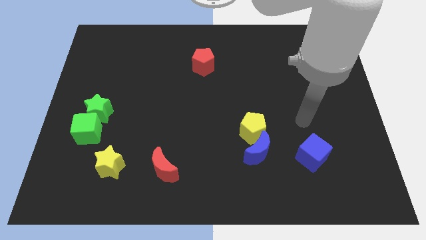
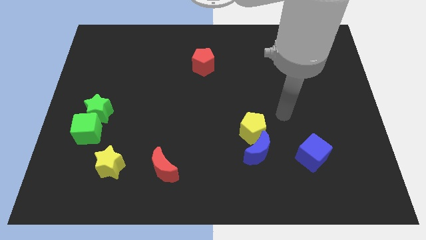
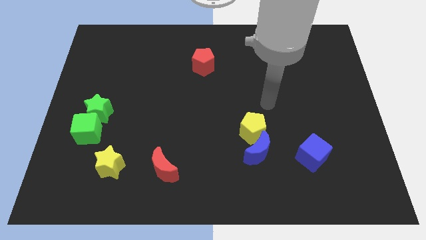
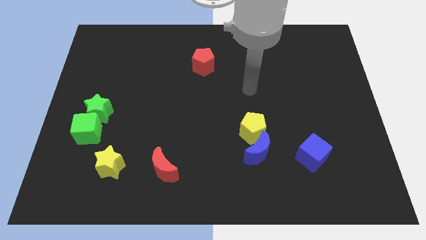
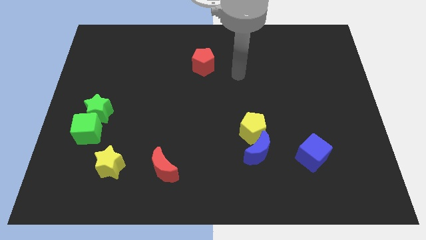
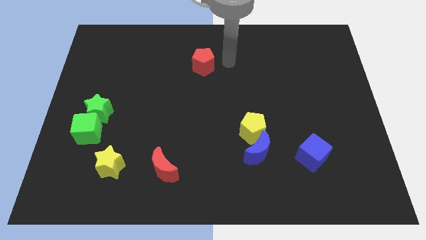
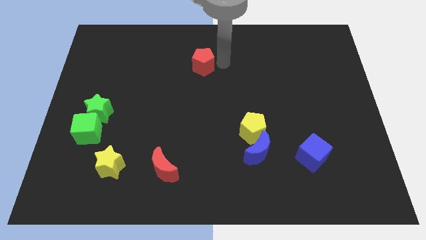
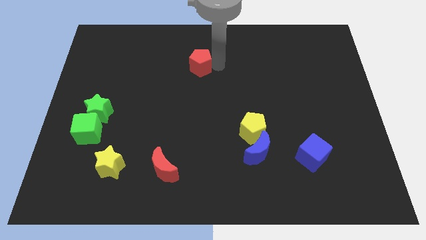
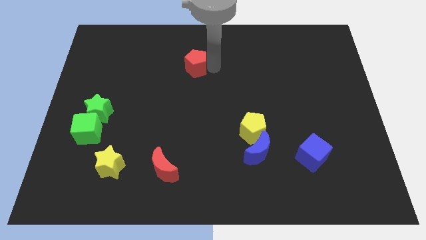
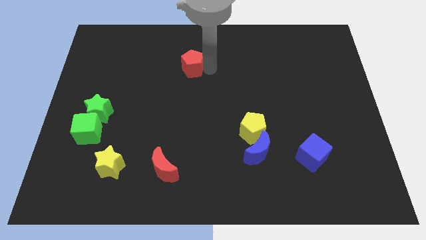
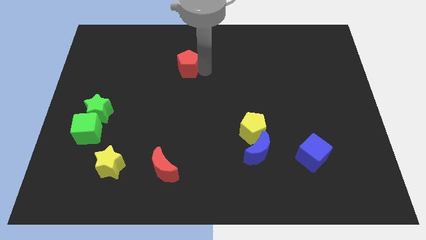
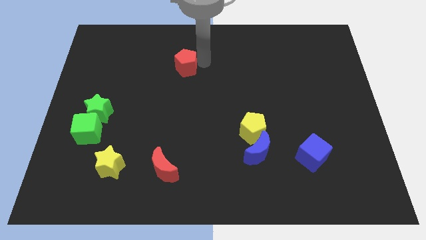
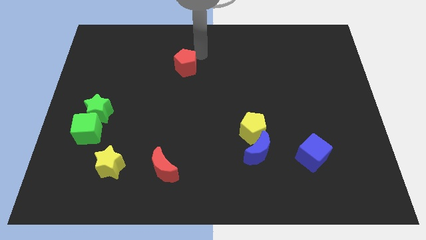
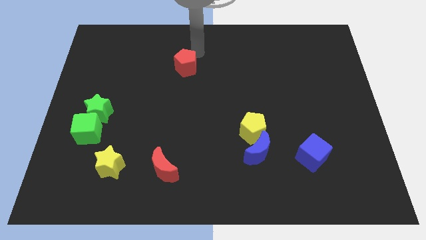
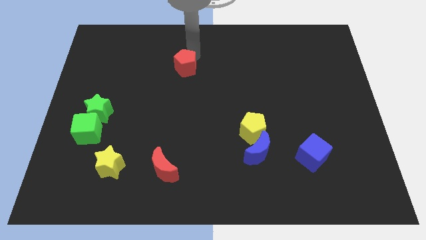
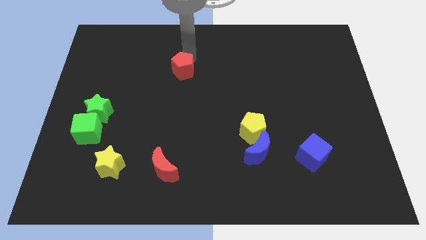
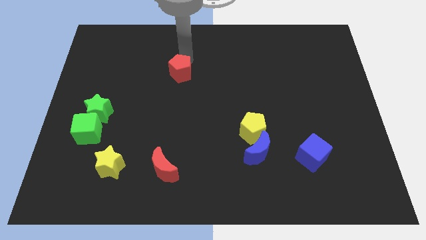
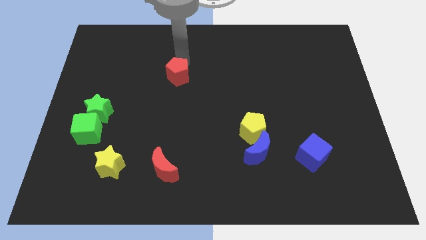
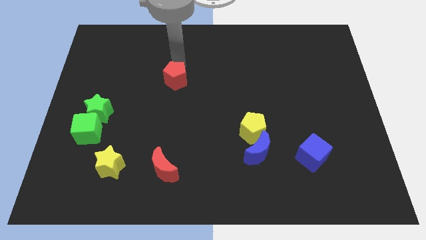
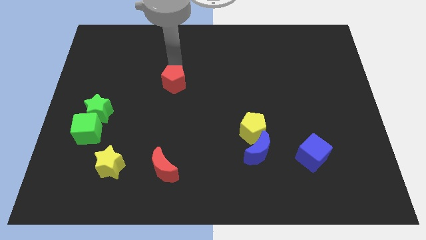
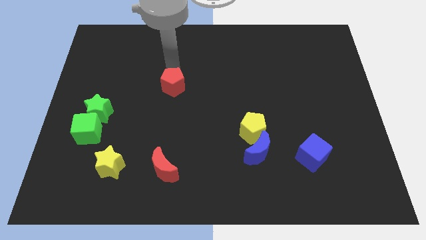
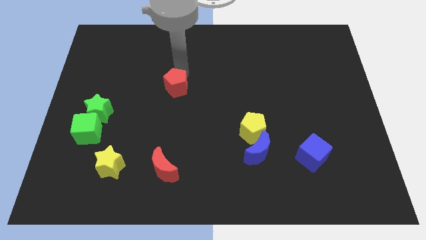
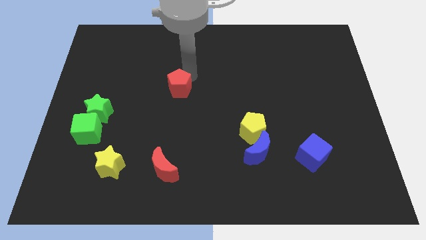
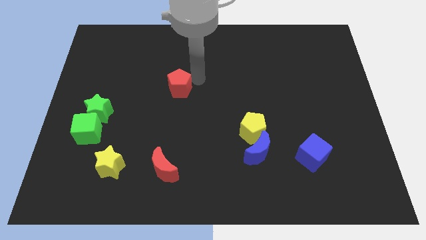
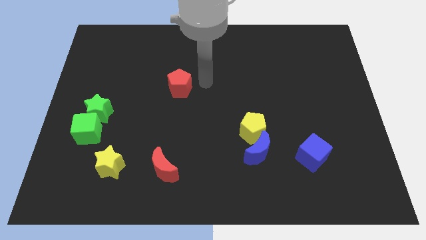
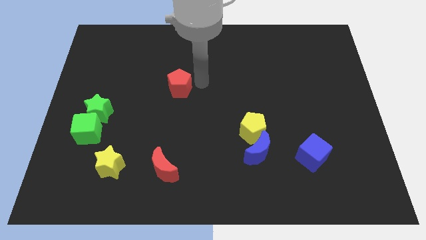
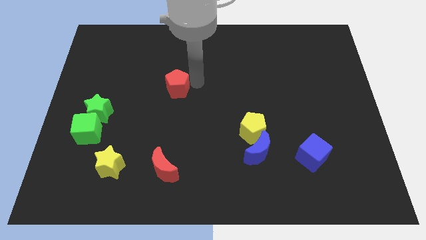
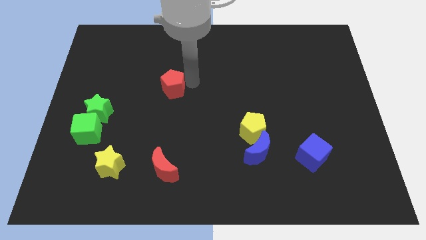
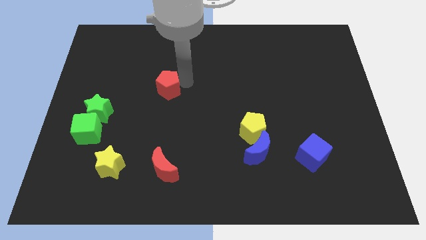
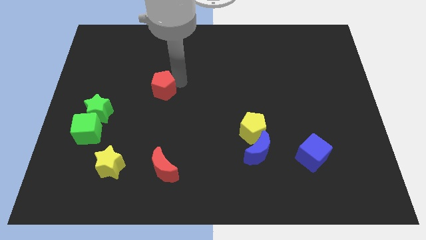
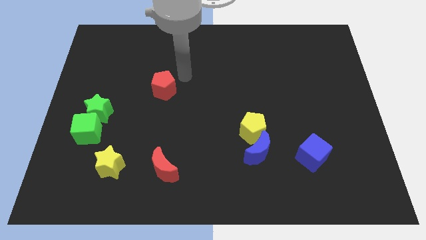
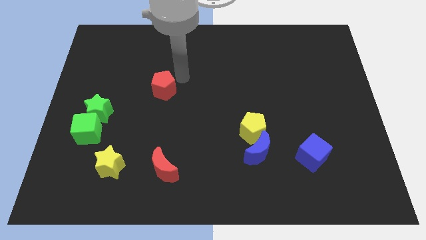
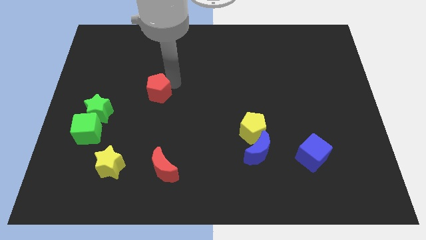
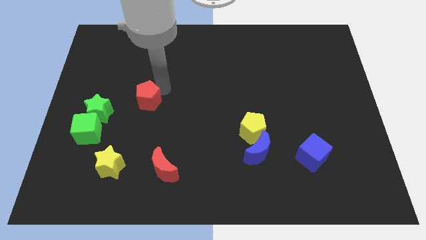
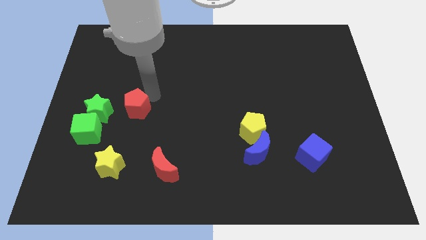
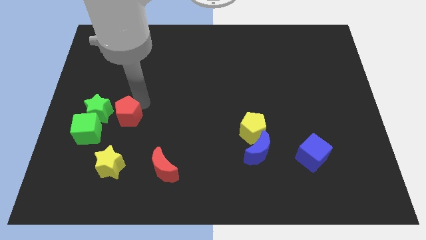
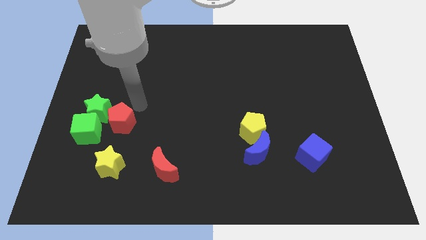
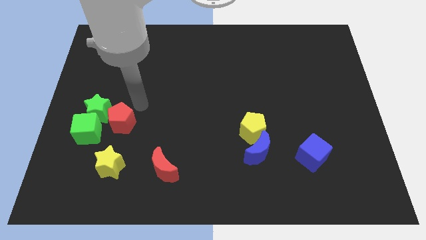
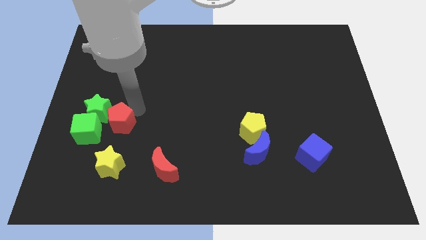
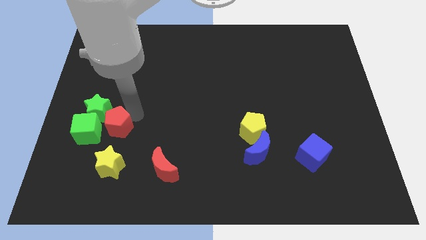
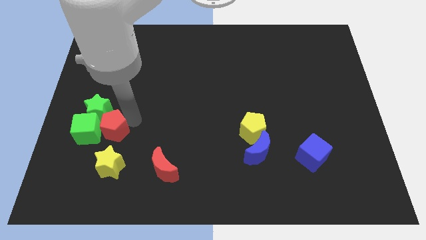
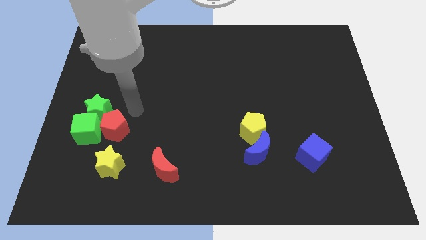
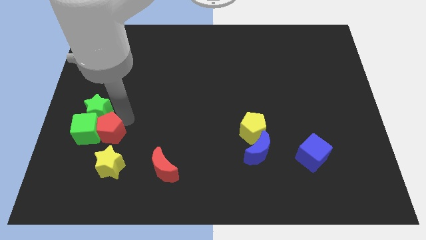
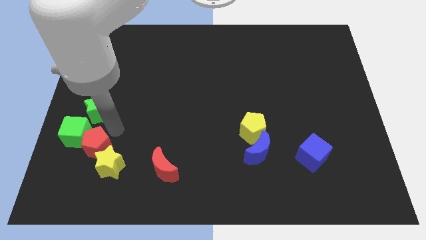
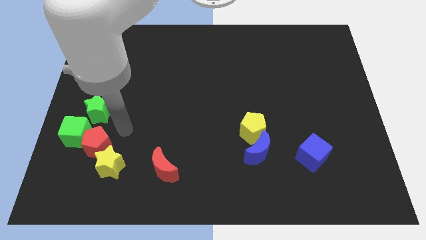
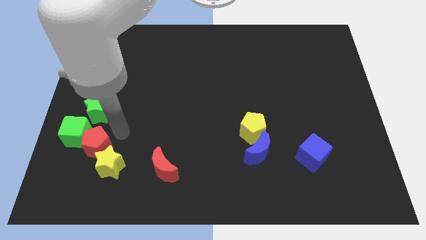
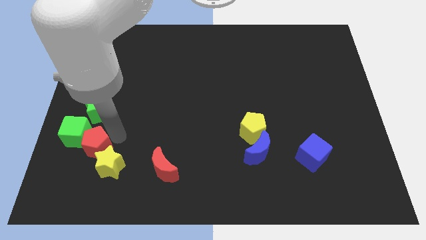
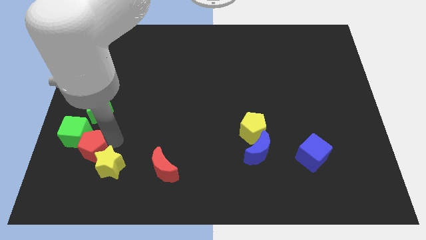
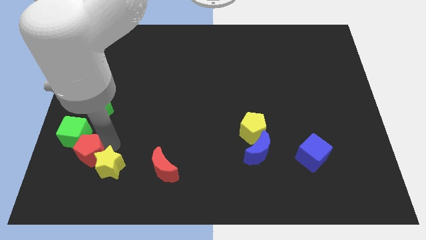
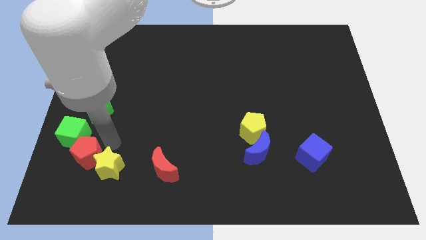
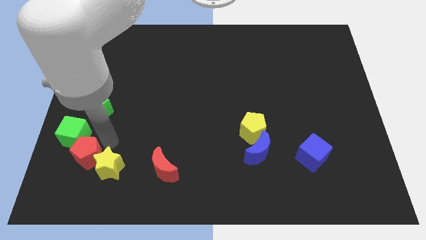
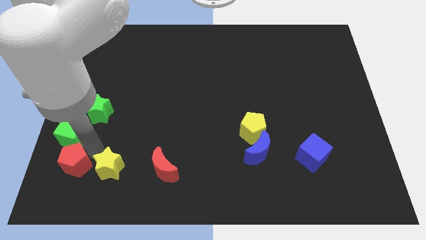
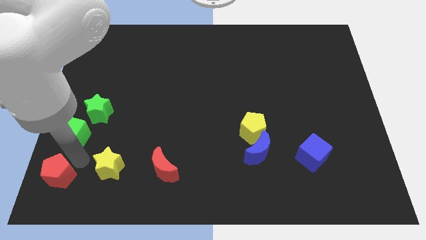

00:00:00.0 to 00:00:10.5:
slide the red pentagon to the bottom left
